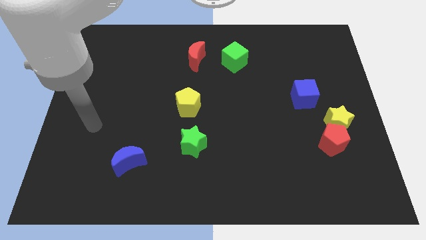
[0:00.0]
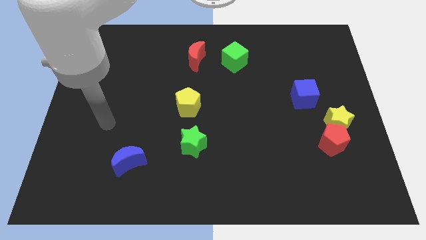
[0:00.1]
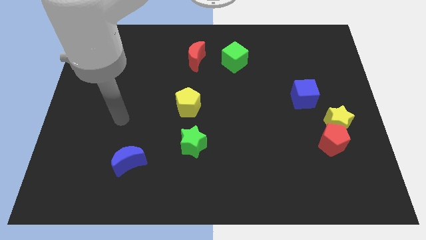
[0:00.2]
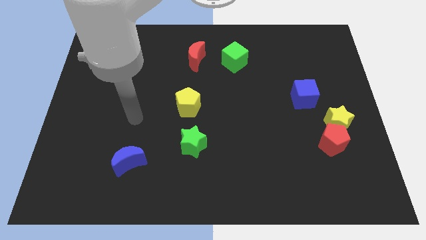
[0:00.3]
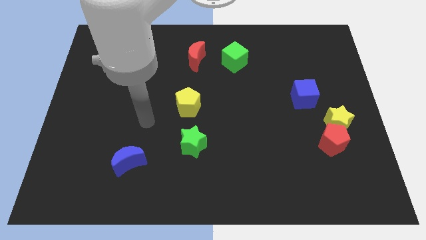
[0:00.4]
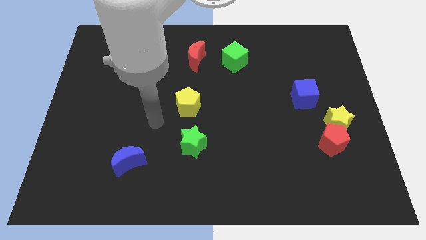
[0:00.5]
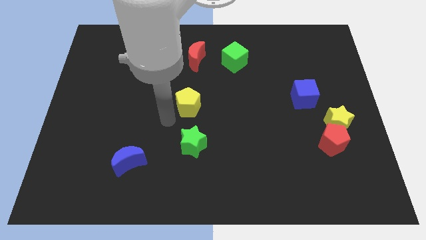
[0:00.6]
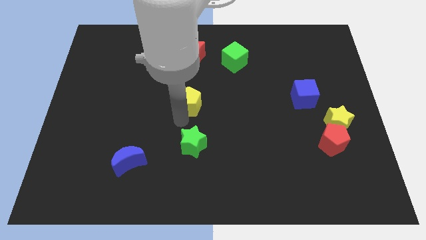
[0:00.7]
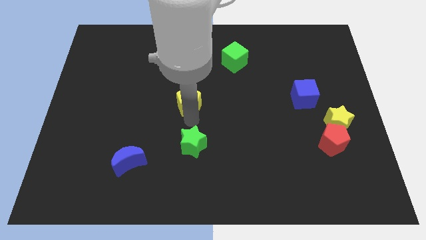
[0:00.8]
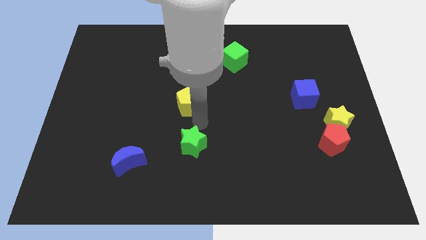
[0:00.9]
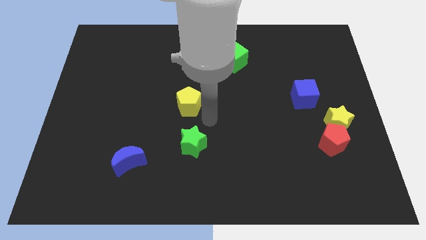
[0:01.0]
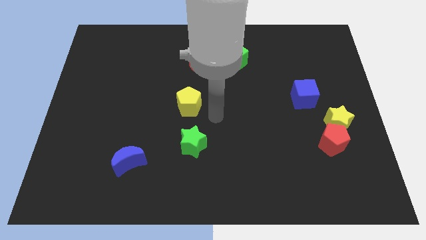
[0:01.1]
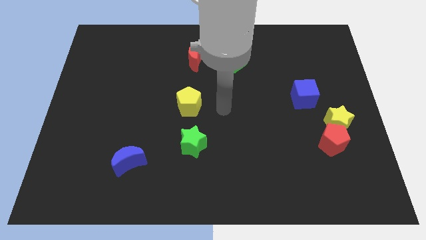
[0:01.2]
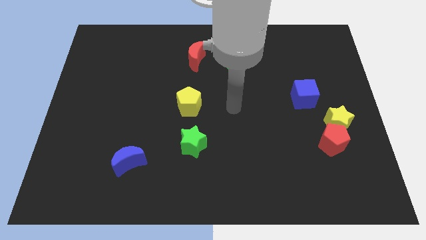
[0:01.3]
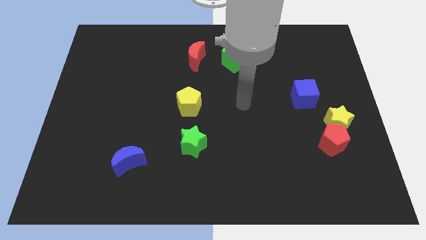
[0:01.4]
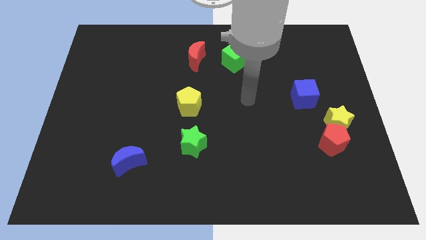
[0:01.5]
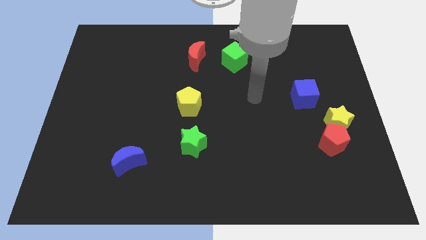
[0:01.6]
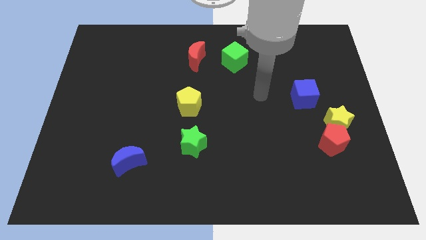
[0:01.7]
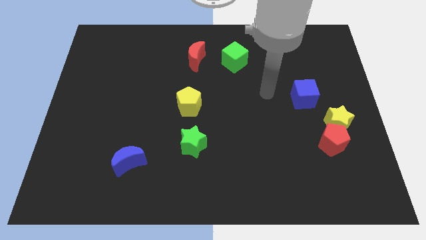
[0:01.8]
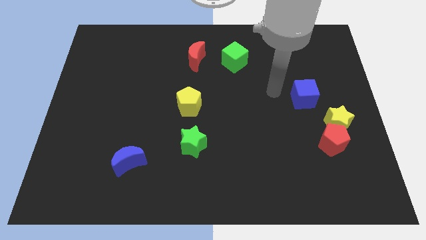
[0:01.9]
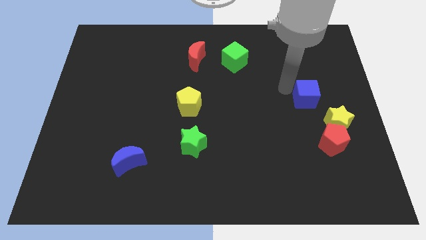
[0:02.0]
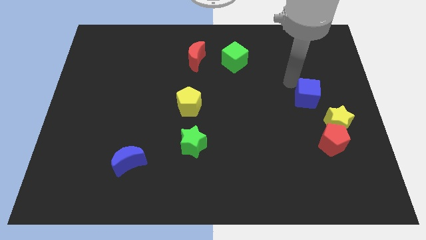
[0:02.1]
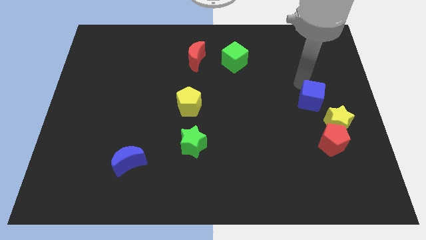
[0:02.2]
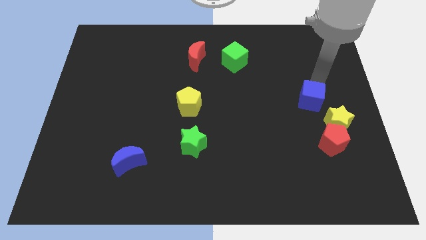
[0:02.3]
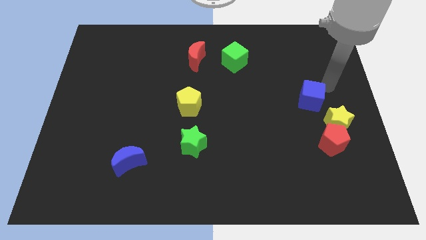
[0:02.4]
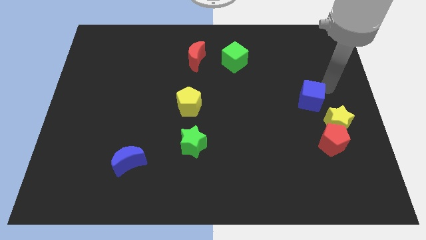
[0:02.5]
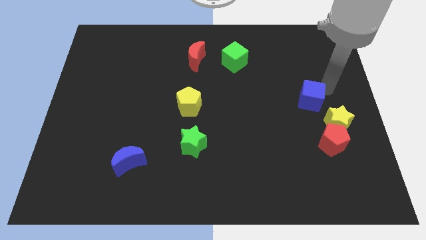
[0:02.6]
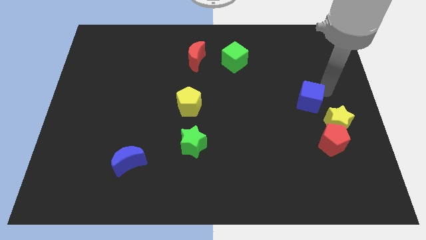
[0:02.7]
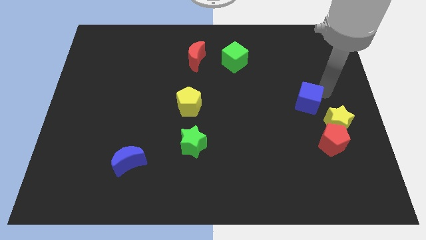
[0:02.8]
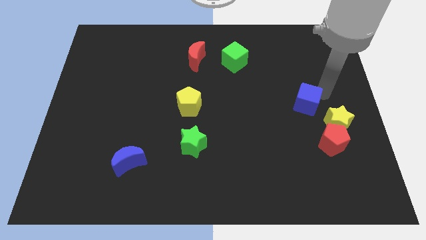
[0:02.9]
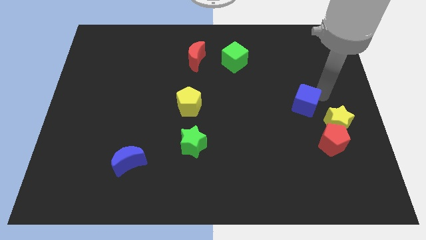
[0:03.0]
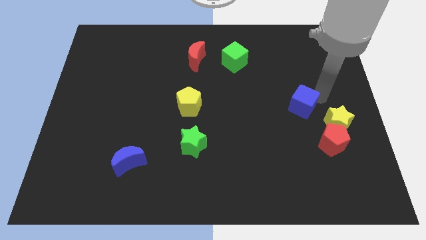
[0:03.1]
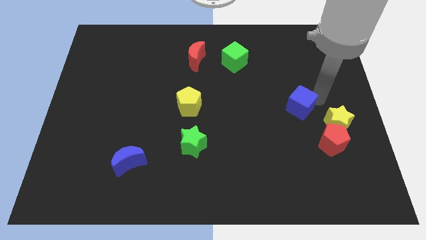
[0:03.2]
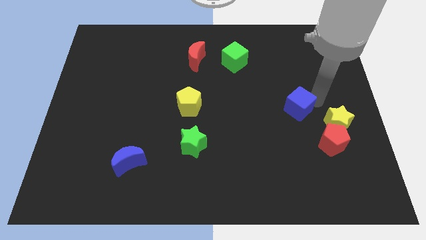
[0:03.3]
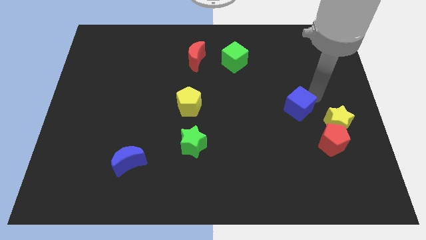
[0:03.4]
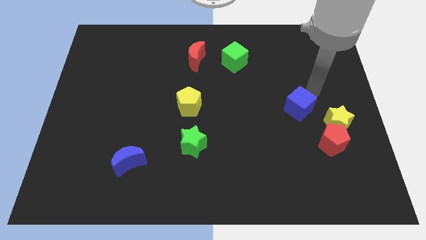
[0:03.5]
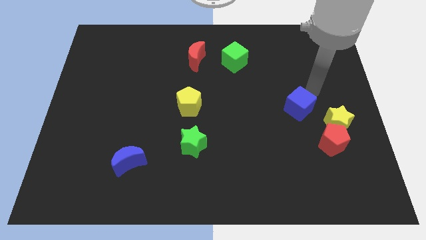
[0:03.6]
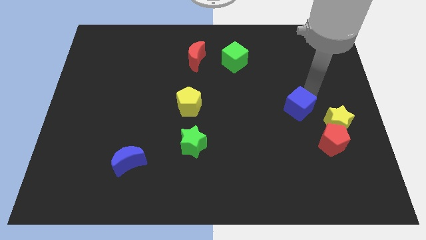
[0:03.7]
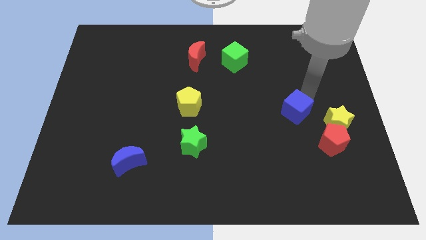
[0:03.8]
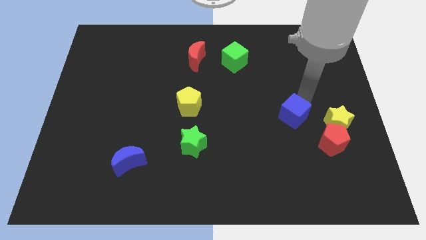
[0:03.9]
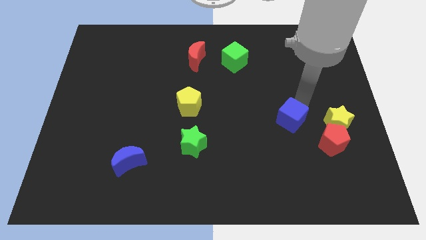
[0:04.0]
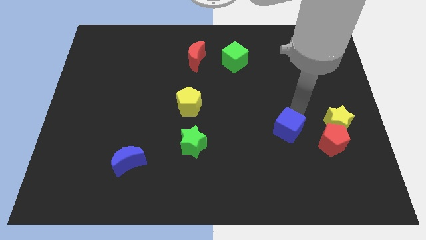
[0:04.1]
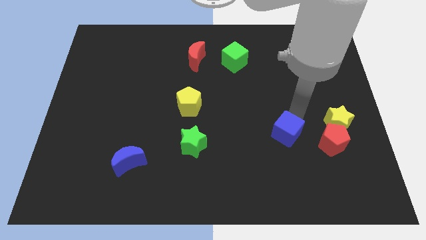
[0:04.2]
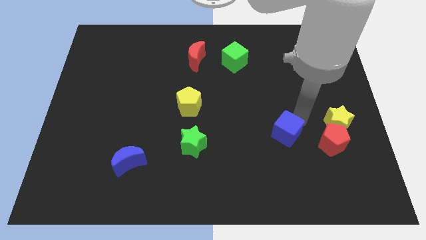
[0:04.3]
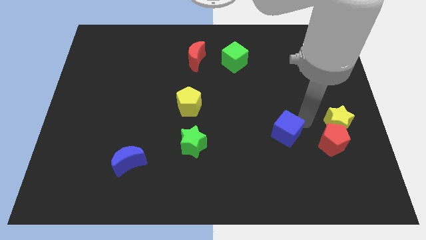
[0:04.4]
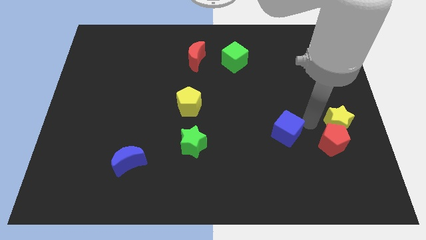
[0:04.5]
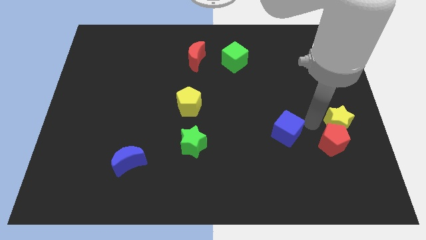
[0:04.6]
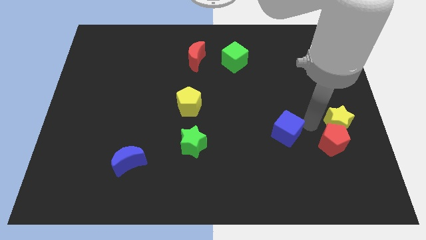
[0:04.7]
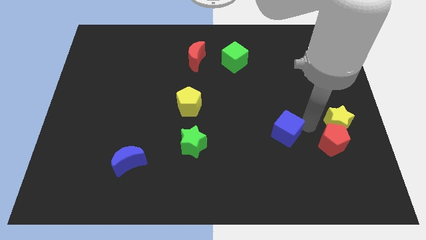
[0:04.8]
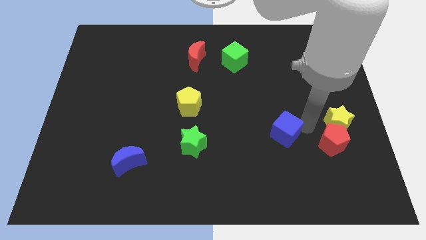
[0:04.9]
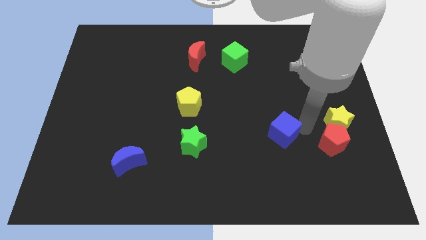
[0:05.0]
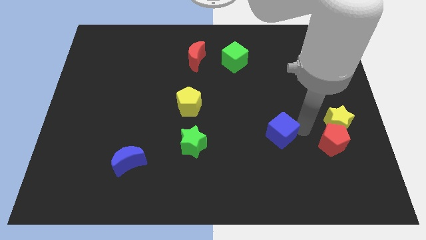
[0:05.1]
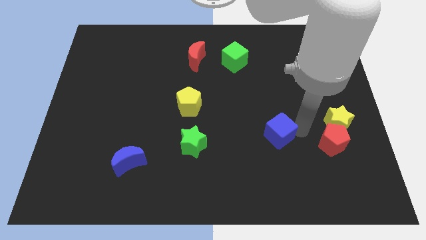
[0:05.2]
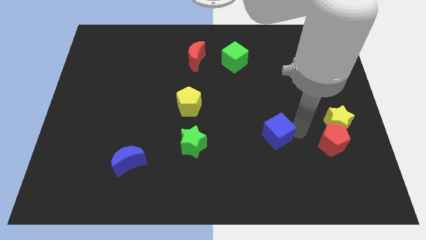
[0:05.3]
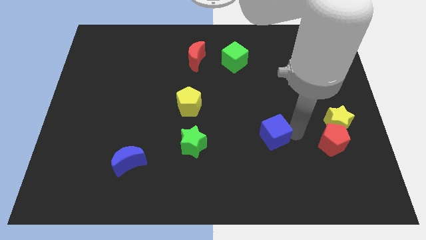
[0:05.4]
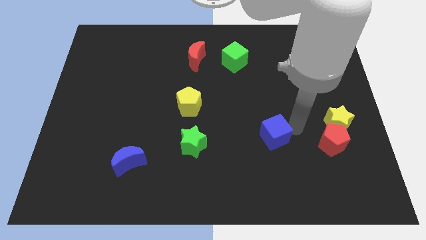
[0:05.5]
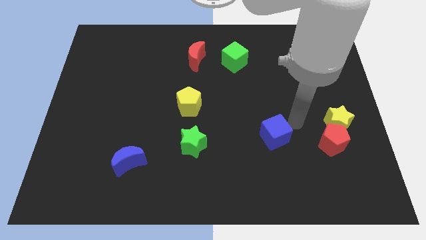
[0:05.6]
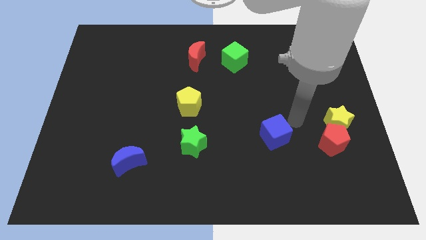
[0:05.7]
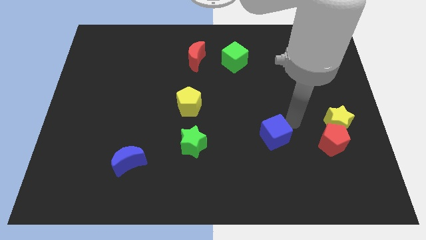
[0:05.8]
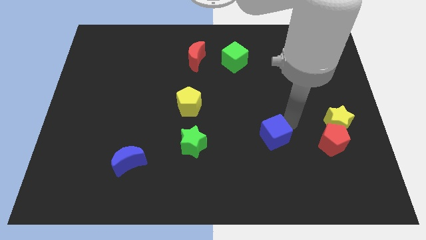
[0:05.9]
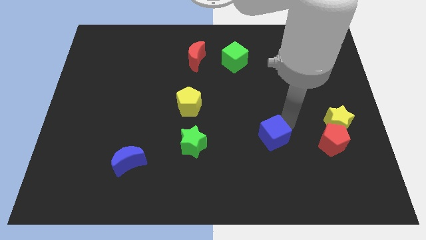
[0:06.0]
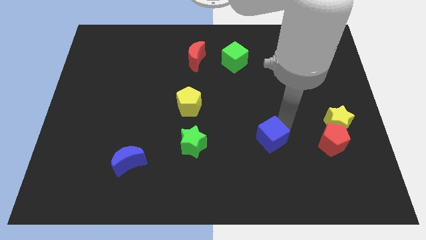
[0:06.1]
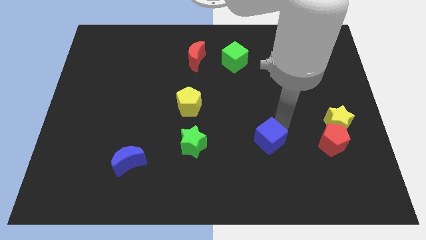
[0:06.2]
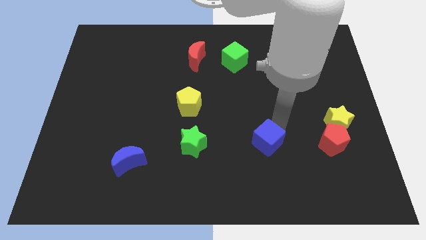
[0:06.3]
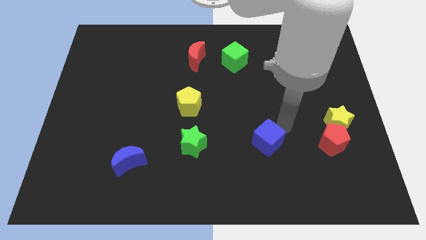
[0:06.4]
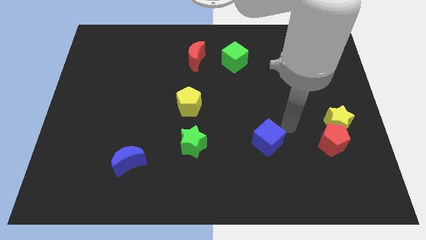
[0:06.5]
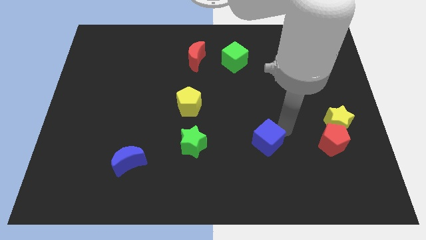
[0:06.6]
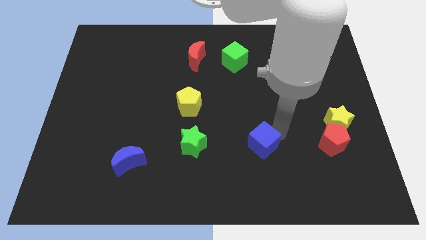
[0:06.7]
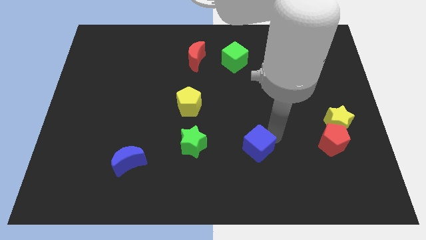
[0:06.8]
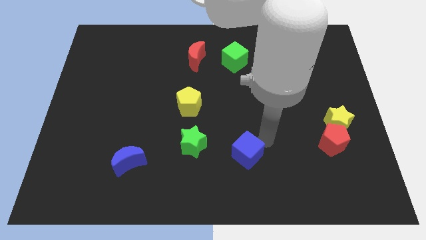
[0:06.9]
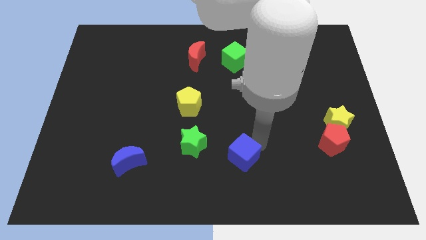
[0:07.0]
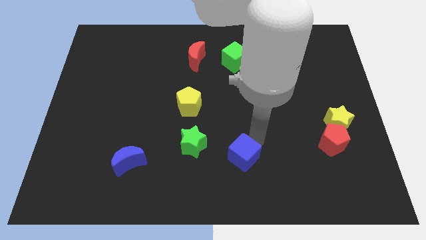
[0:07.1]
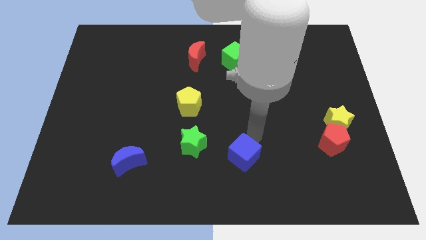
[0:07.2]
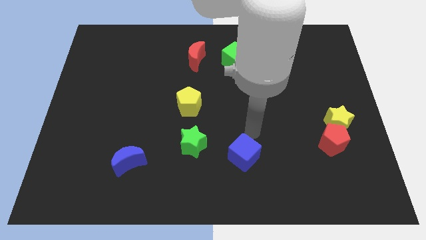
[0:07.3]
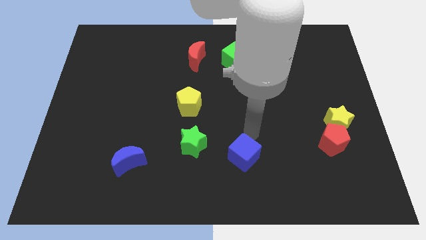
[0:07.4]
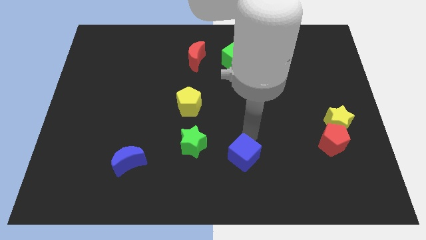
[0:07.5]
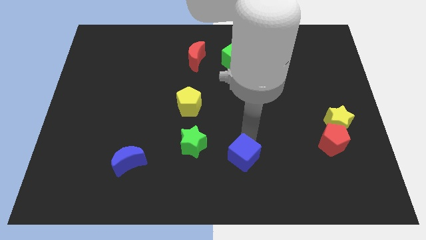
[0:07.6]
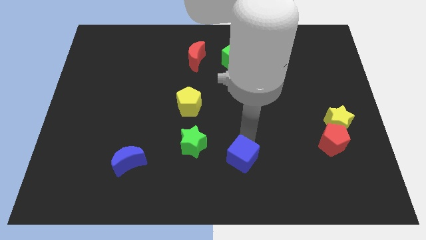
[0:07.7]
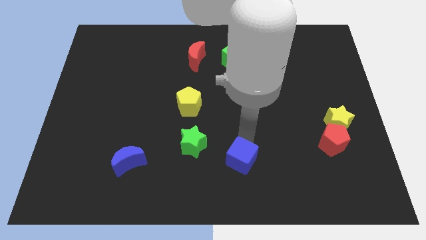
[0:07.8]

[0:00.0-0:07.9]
put the blue cube to the bottom side

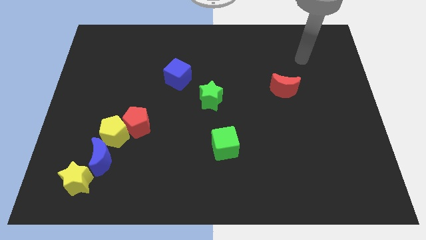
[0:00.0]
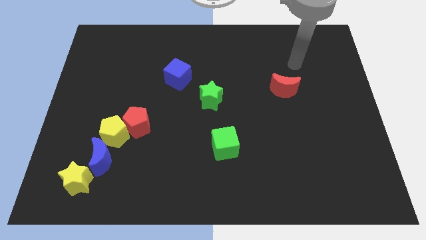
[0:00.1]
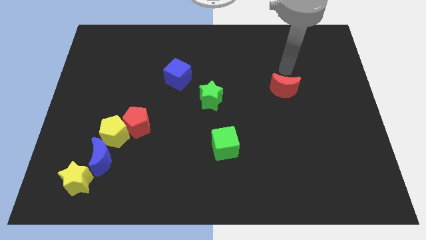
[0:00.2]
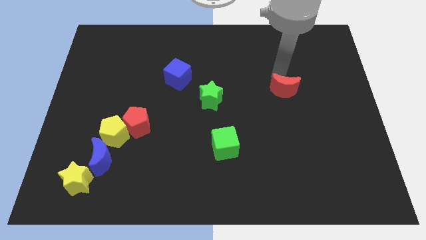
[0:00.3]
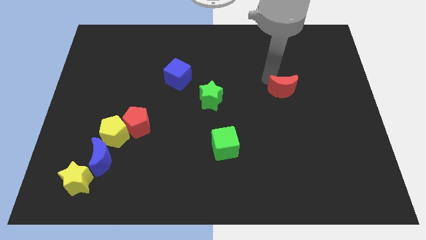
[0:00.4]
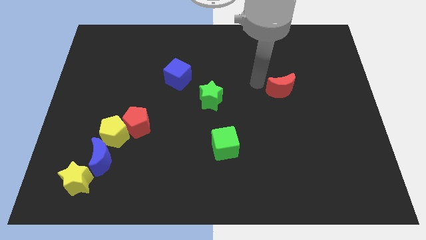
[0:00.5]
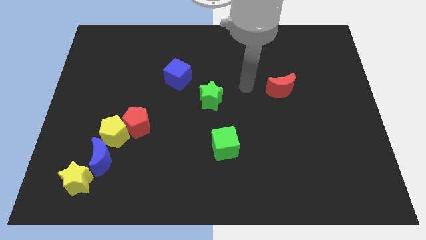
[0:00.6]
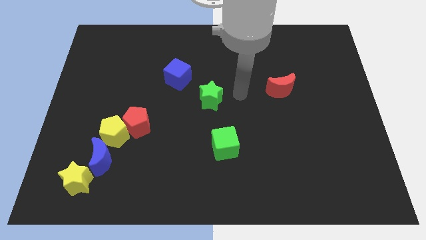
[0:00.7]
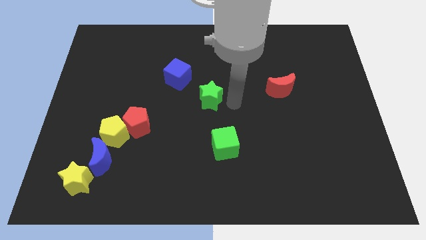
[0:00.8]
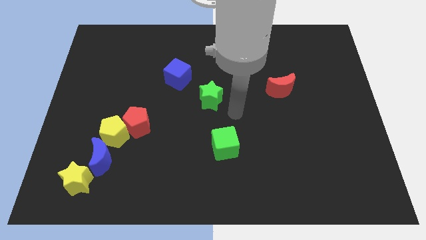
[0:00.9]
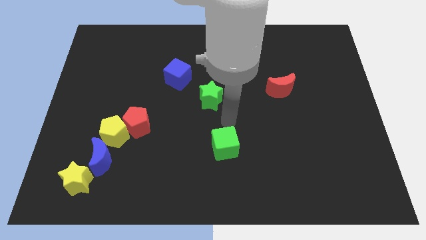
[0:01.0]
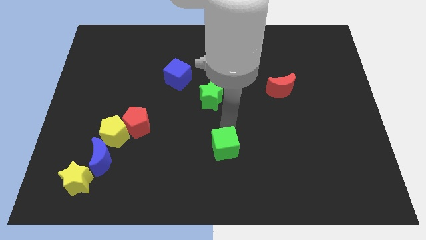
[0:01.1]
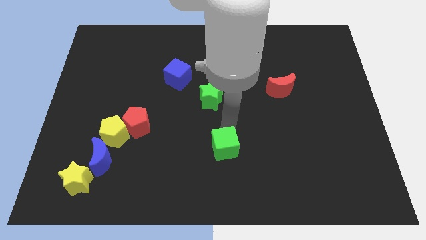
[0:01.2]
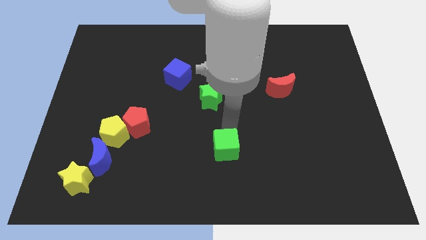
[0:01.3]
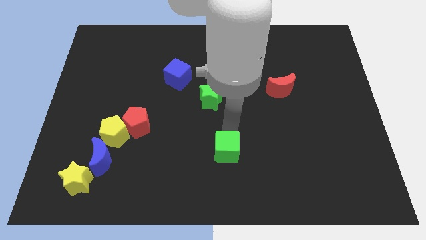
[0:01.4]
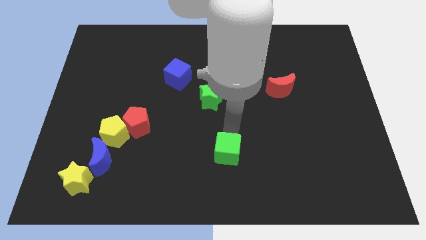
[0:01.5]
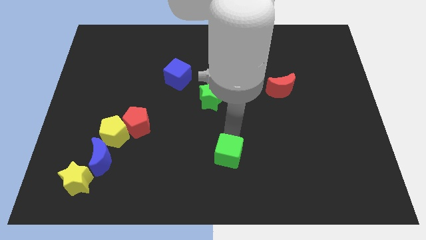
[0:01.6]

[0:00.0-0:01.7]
push the green cube to the bottom
